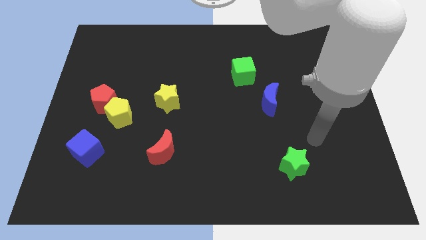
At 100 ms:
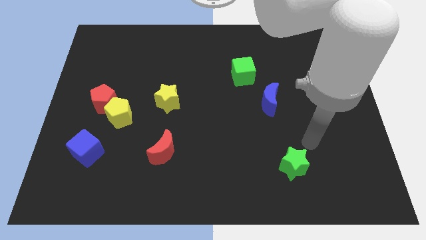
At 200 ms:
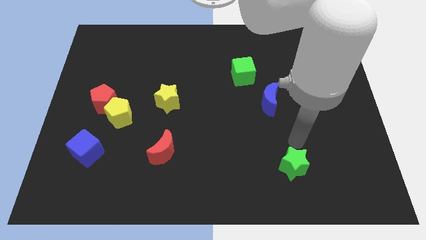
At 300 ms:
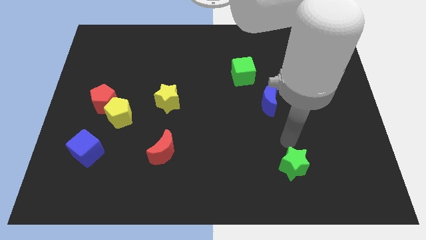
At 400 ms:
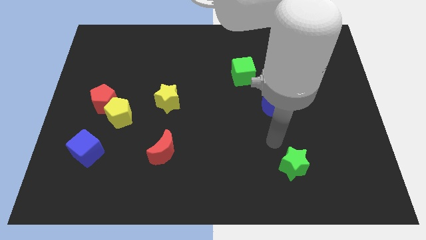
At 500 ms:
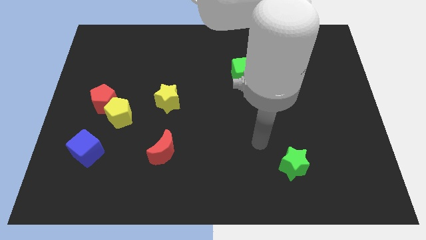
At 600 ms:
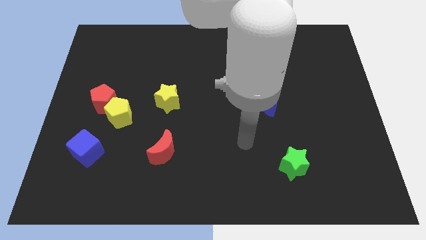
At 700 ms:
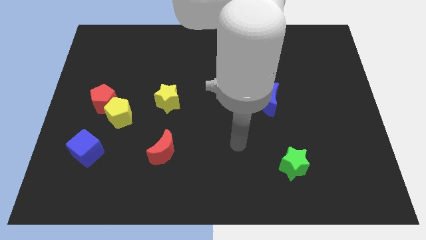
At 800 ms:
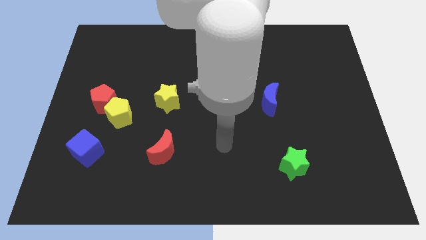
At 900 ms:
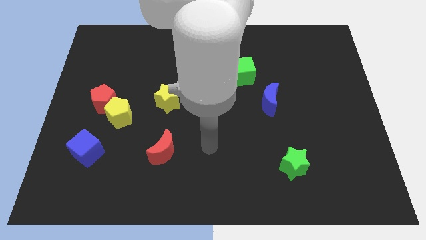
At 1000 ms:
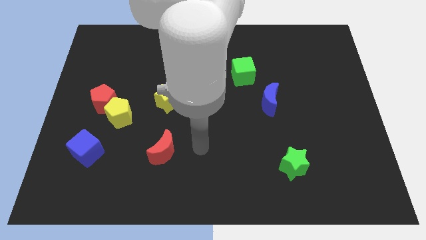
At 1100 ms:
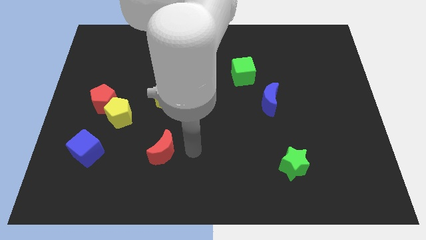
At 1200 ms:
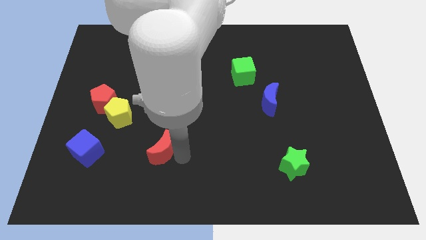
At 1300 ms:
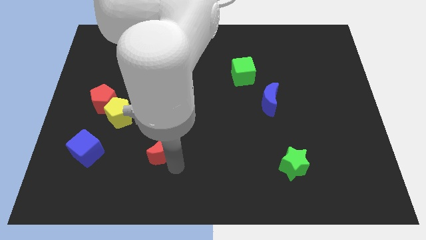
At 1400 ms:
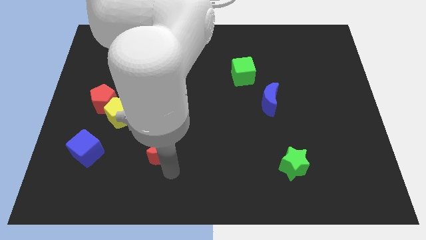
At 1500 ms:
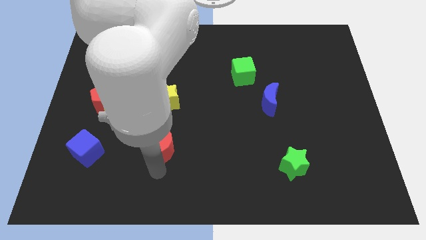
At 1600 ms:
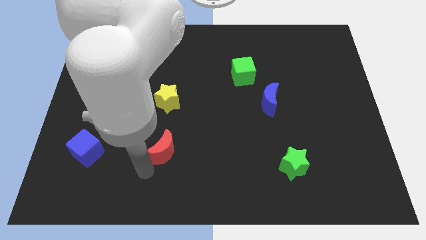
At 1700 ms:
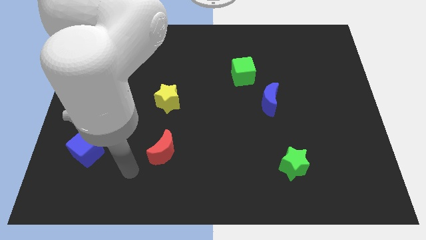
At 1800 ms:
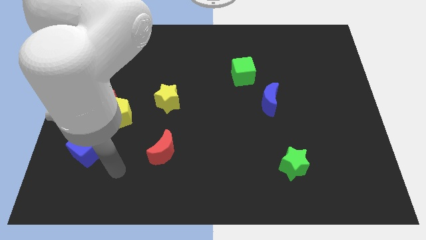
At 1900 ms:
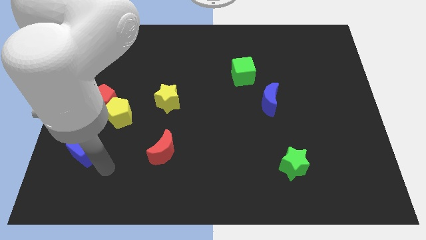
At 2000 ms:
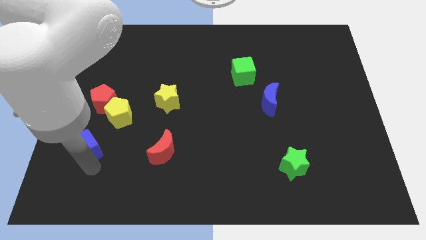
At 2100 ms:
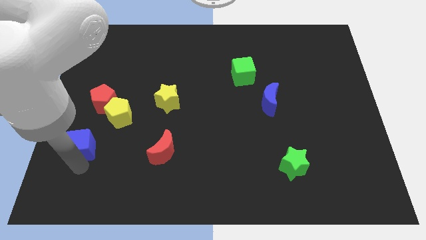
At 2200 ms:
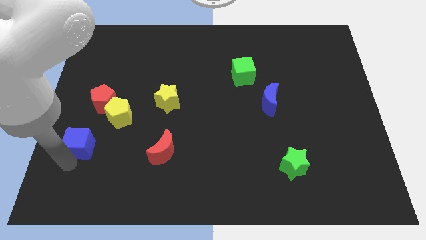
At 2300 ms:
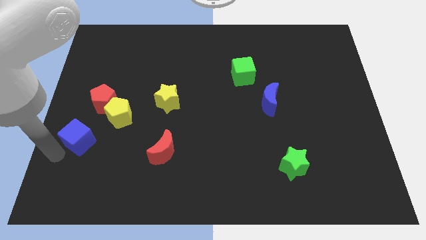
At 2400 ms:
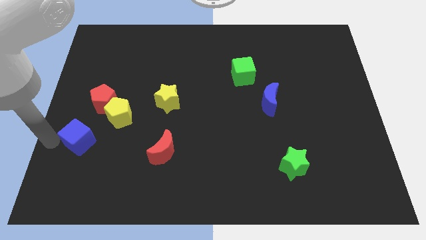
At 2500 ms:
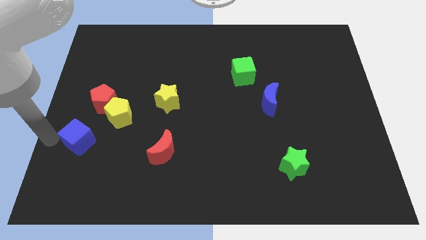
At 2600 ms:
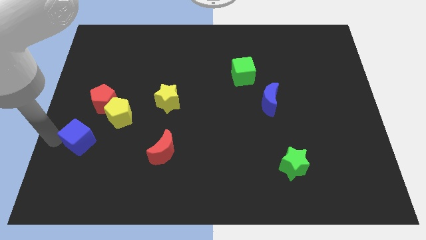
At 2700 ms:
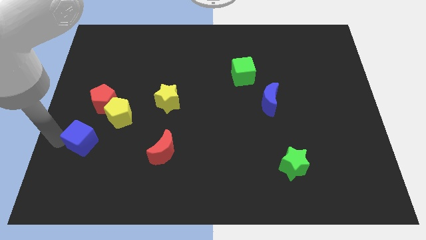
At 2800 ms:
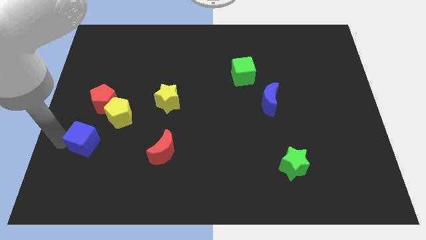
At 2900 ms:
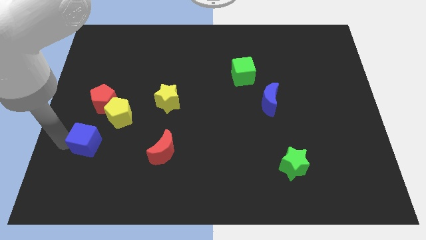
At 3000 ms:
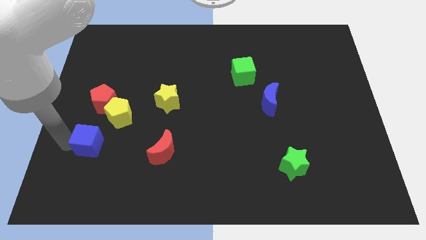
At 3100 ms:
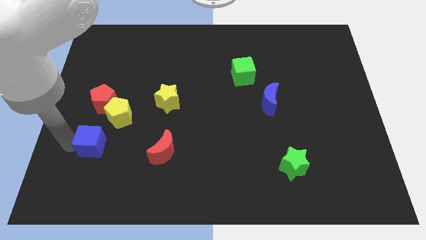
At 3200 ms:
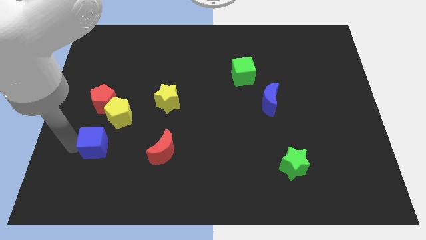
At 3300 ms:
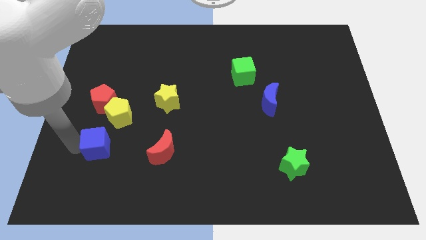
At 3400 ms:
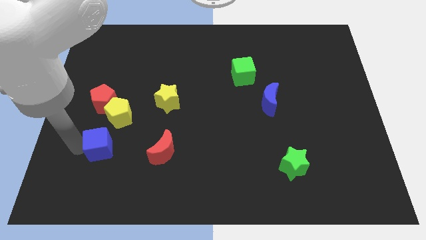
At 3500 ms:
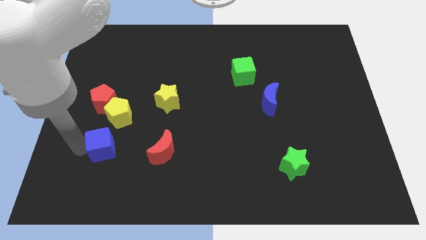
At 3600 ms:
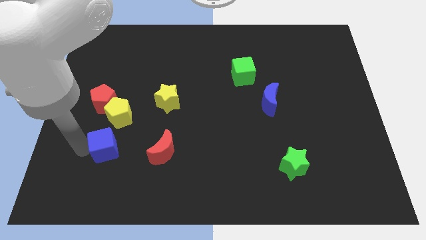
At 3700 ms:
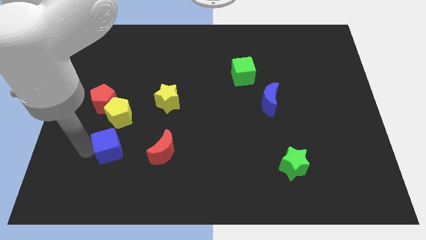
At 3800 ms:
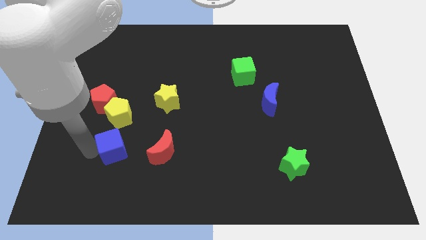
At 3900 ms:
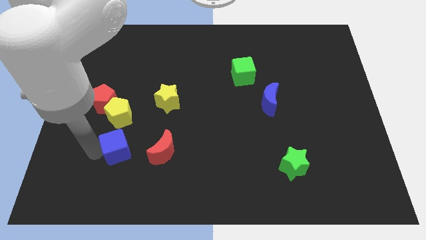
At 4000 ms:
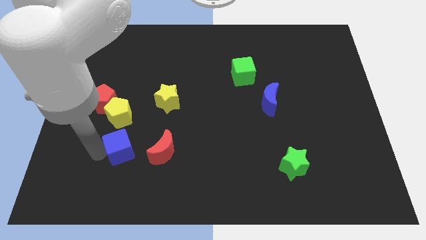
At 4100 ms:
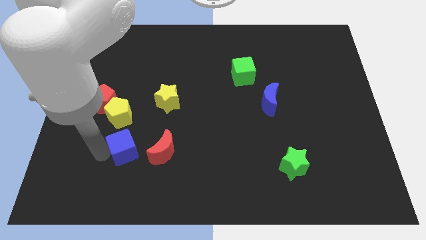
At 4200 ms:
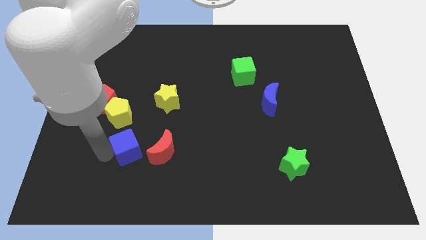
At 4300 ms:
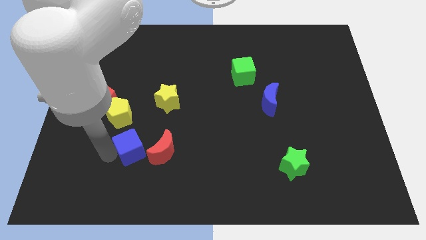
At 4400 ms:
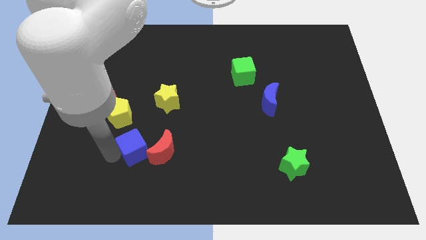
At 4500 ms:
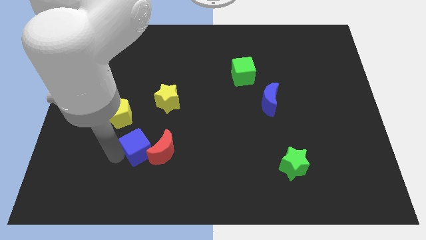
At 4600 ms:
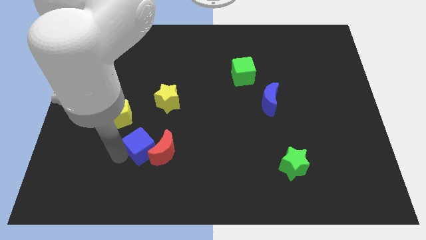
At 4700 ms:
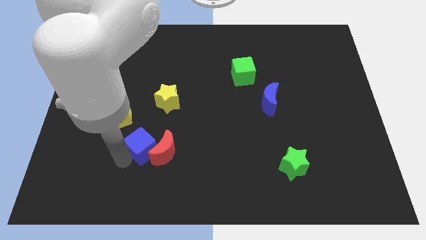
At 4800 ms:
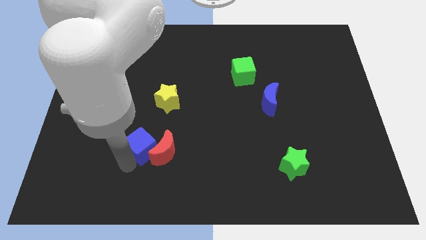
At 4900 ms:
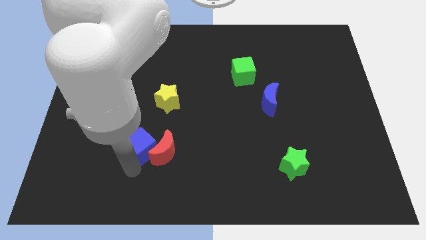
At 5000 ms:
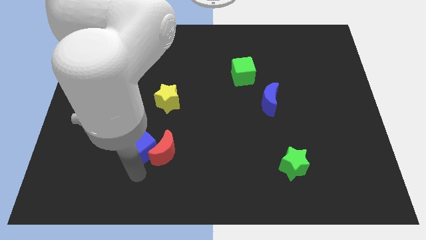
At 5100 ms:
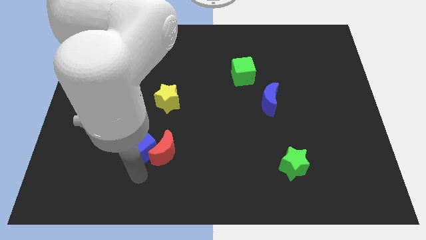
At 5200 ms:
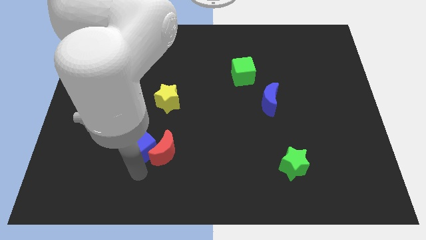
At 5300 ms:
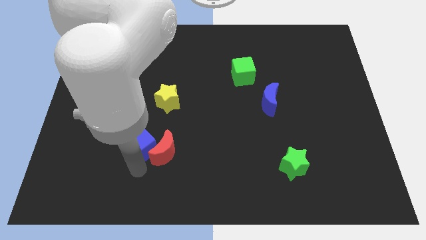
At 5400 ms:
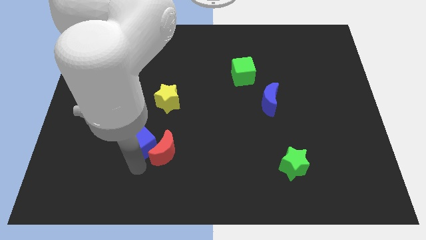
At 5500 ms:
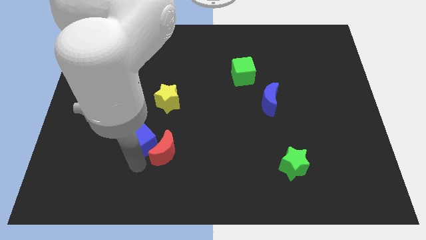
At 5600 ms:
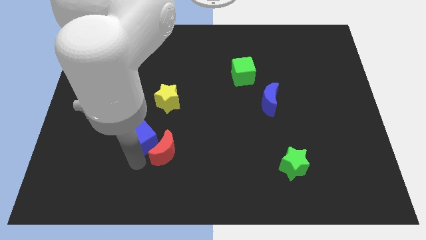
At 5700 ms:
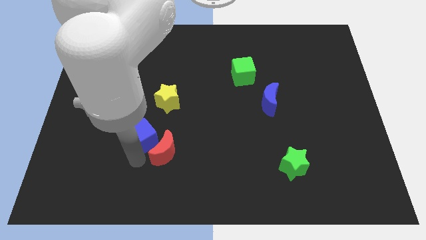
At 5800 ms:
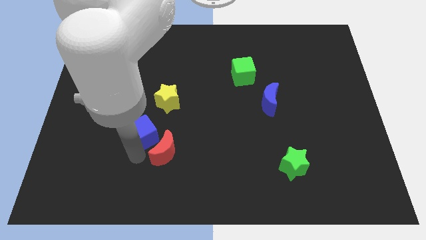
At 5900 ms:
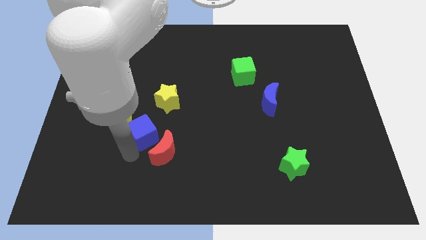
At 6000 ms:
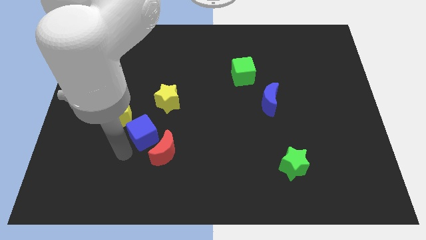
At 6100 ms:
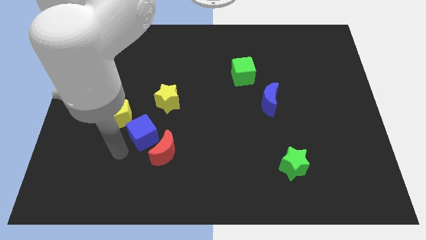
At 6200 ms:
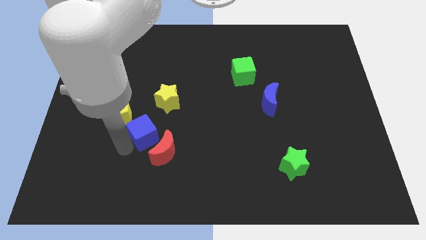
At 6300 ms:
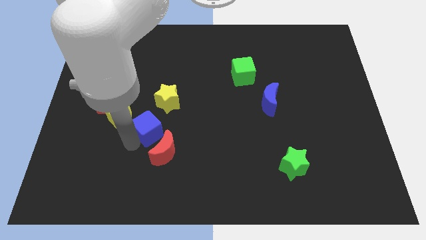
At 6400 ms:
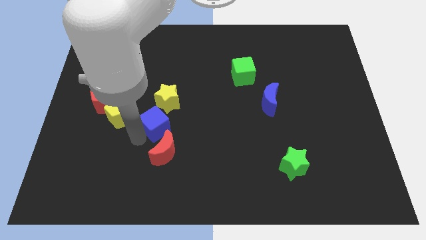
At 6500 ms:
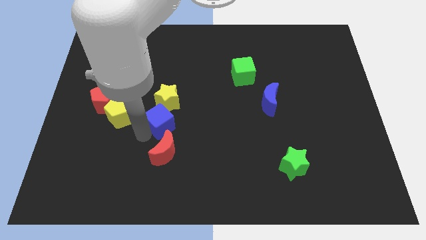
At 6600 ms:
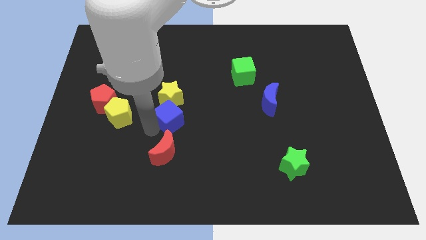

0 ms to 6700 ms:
put the blue cube to the middle of the board
